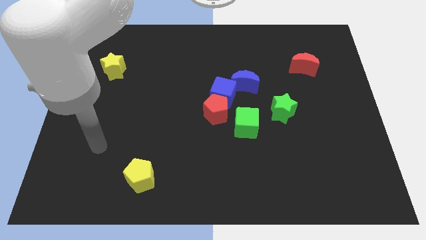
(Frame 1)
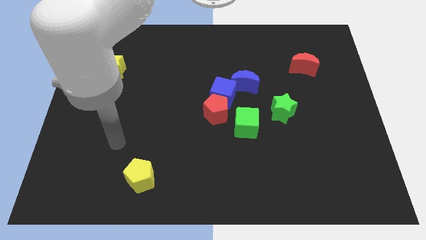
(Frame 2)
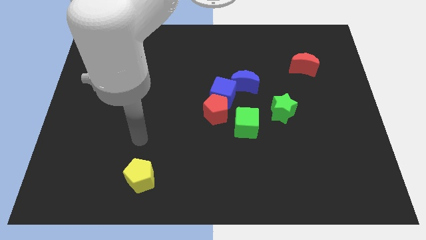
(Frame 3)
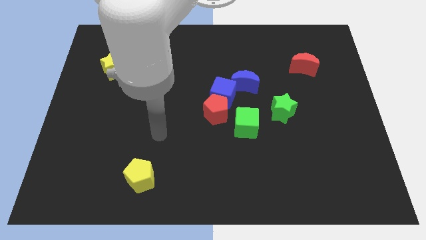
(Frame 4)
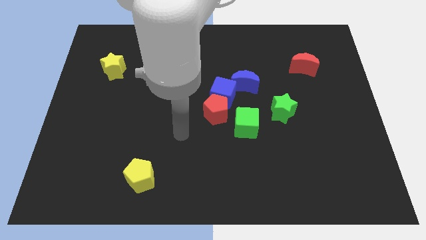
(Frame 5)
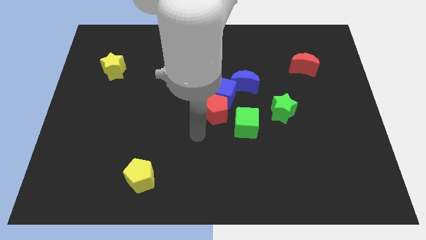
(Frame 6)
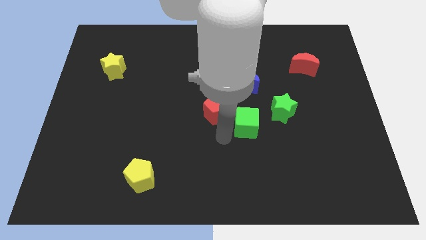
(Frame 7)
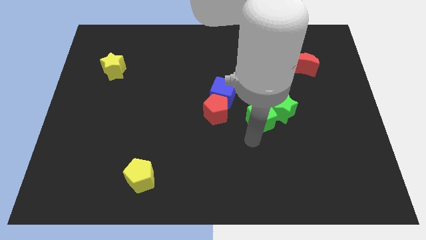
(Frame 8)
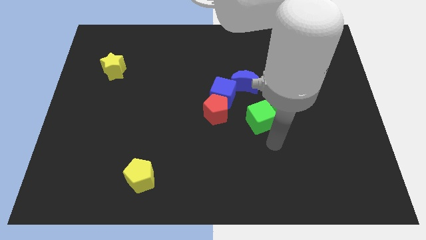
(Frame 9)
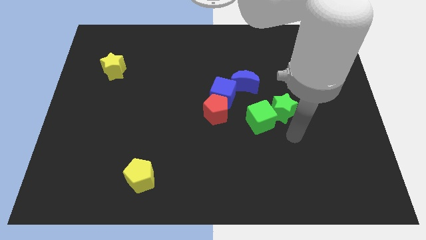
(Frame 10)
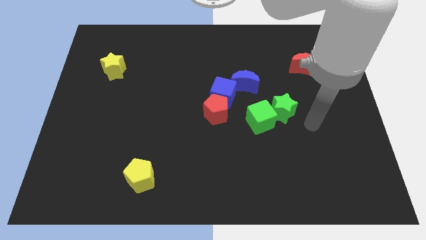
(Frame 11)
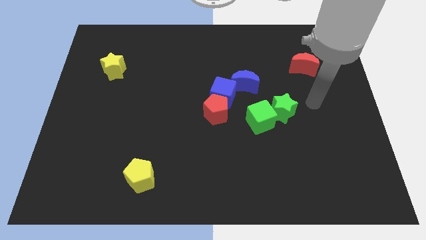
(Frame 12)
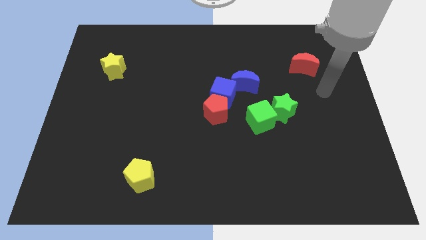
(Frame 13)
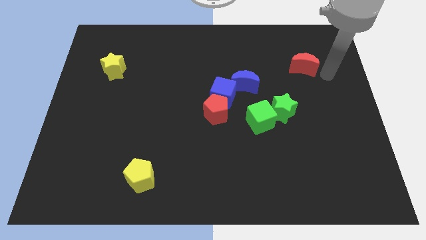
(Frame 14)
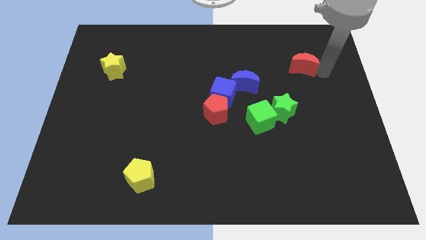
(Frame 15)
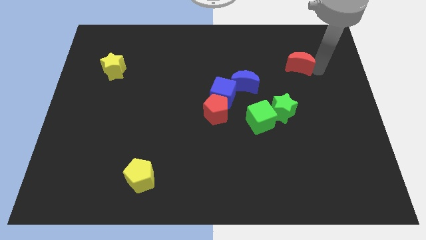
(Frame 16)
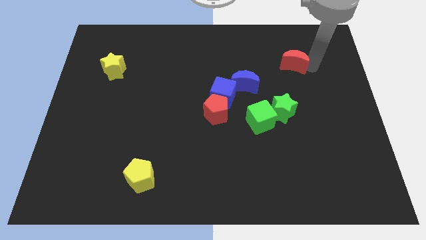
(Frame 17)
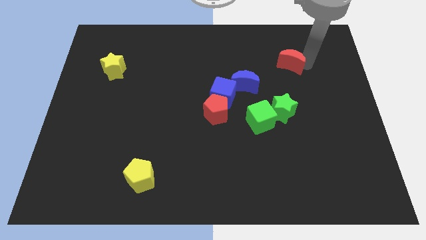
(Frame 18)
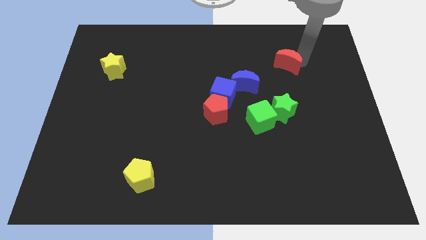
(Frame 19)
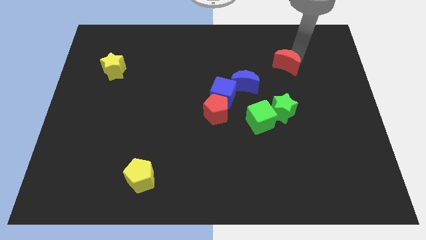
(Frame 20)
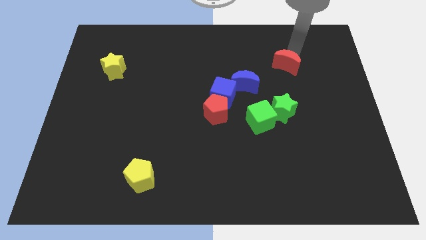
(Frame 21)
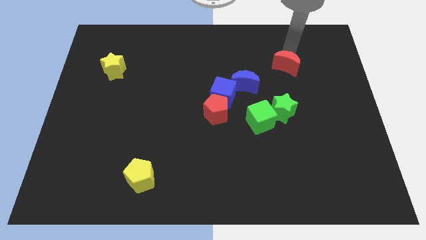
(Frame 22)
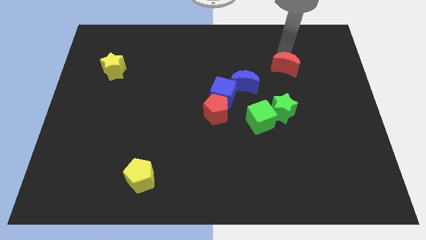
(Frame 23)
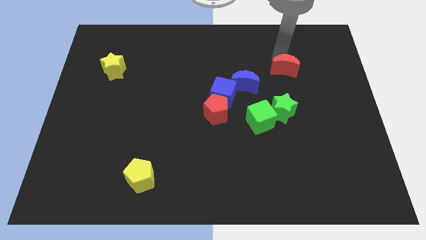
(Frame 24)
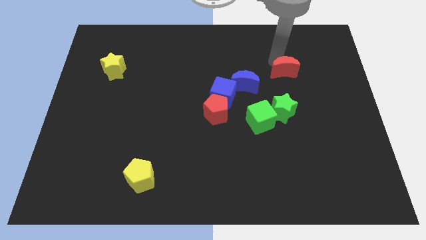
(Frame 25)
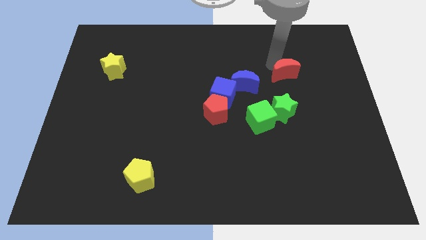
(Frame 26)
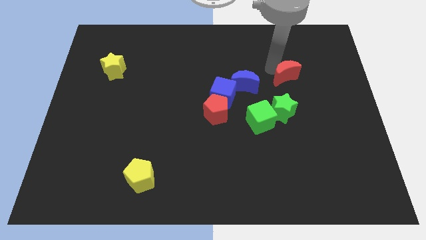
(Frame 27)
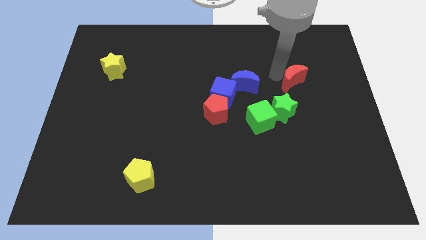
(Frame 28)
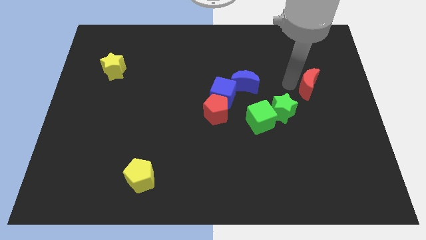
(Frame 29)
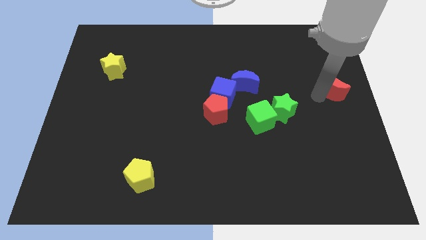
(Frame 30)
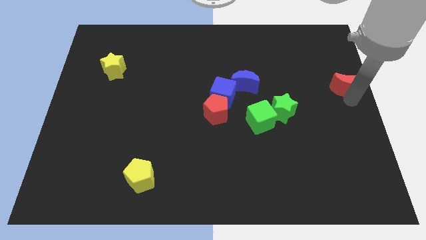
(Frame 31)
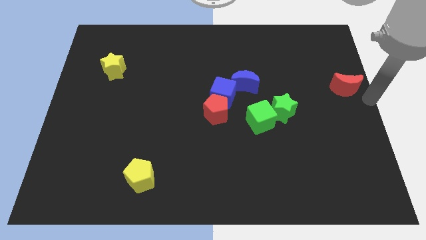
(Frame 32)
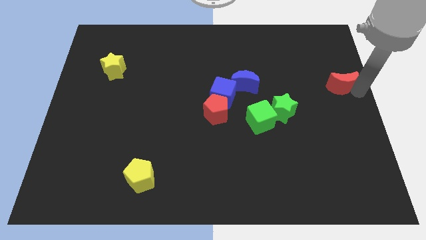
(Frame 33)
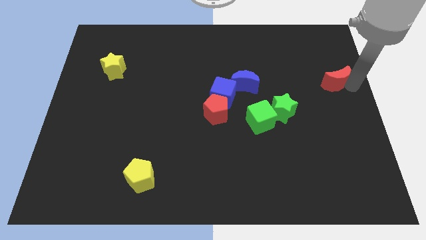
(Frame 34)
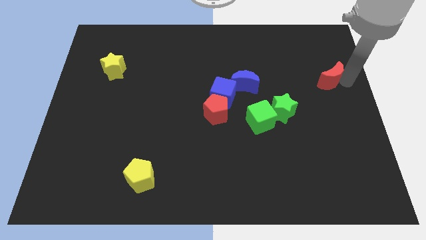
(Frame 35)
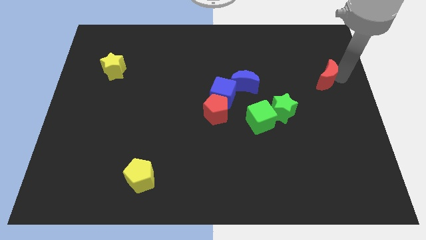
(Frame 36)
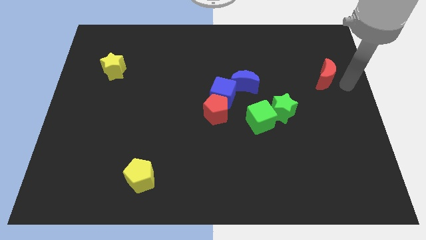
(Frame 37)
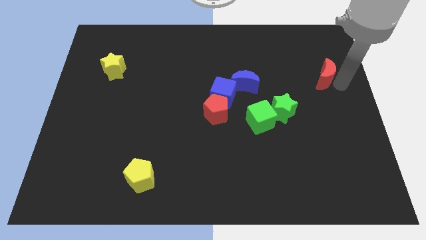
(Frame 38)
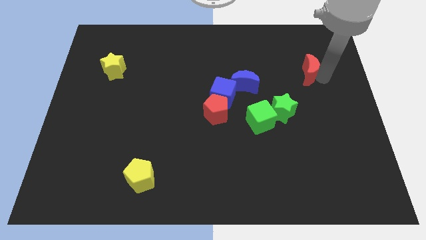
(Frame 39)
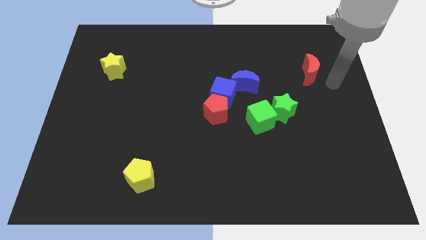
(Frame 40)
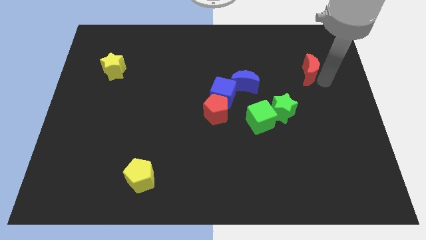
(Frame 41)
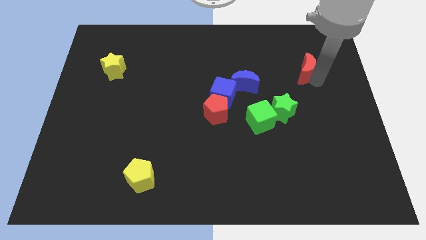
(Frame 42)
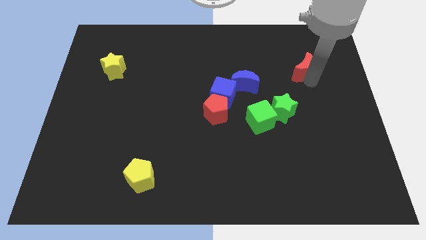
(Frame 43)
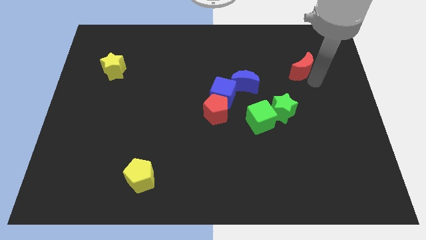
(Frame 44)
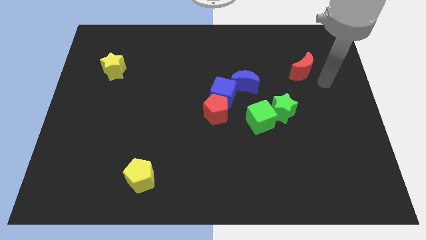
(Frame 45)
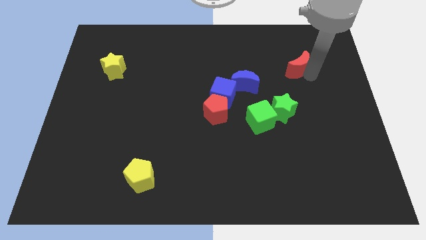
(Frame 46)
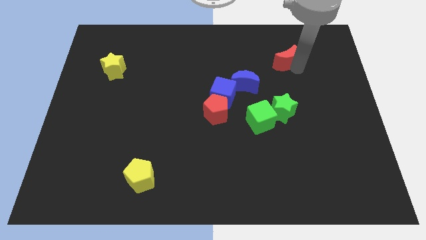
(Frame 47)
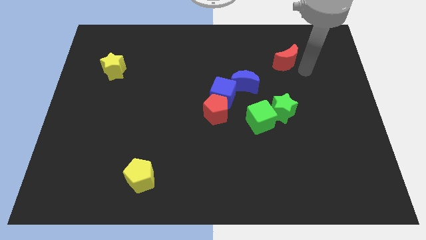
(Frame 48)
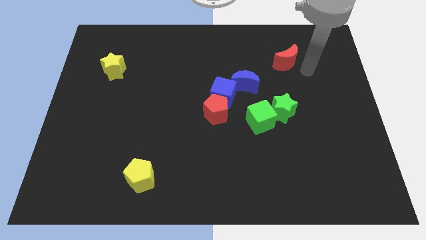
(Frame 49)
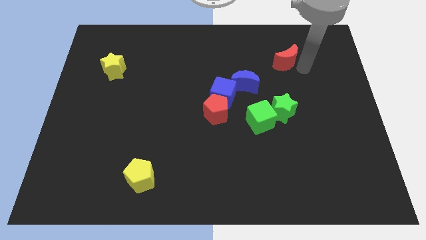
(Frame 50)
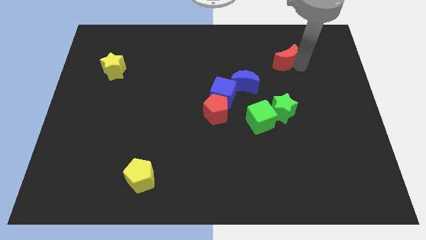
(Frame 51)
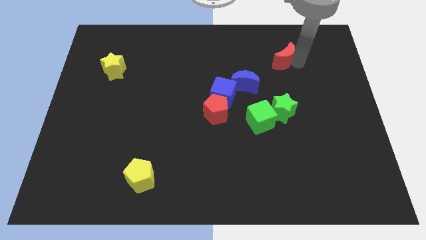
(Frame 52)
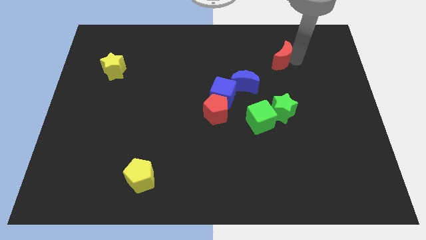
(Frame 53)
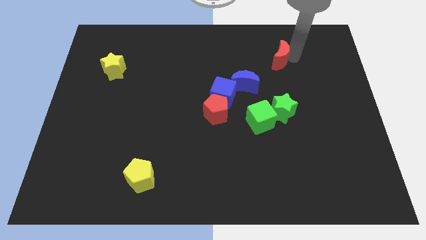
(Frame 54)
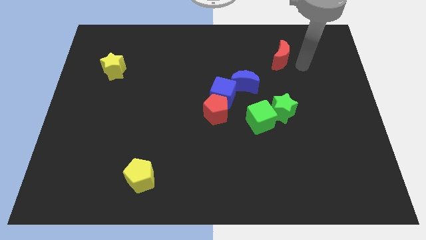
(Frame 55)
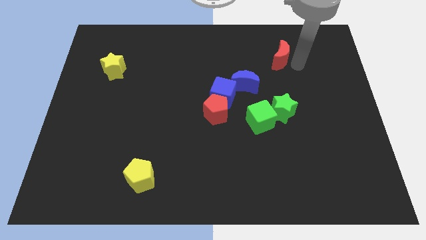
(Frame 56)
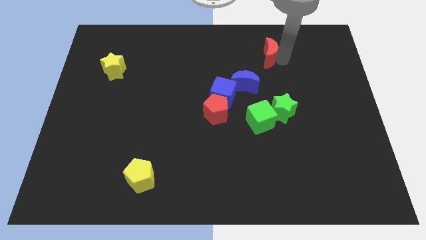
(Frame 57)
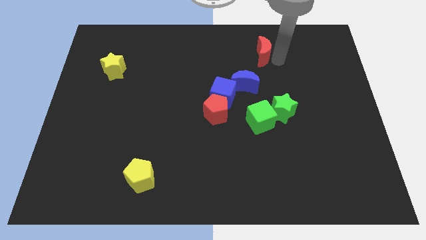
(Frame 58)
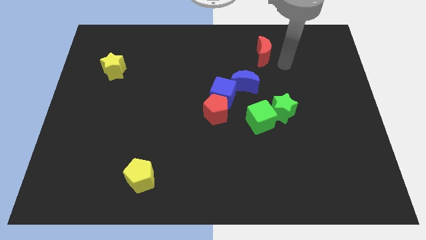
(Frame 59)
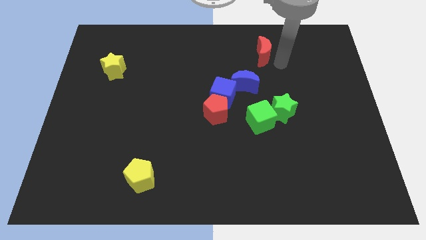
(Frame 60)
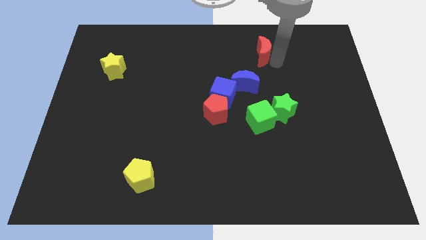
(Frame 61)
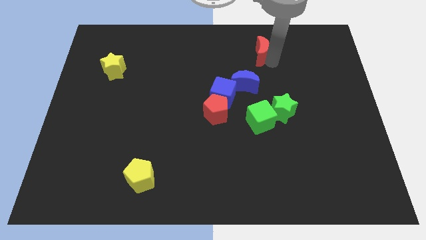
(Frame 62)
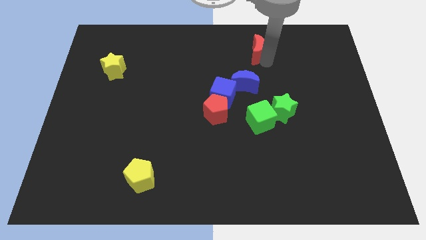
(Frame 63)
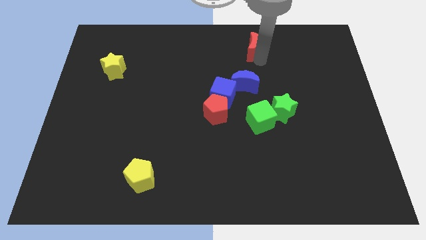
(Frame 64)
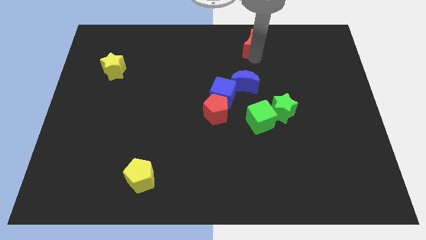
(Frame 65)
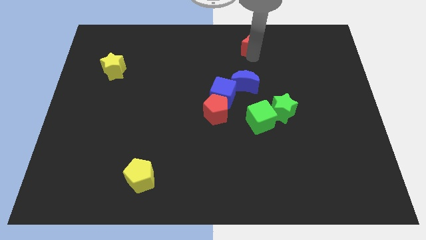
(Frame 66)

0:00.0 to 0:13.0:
slide the red moon to the top
